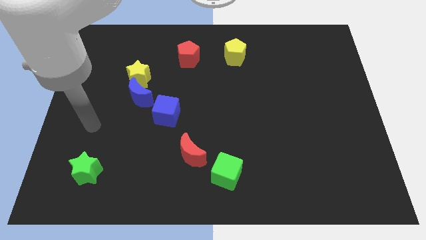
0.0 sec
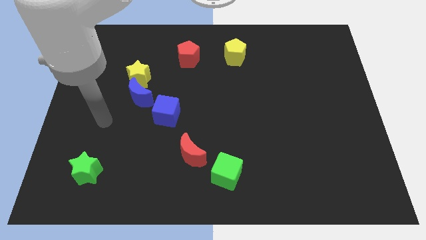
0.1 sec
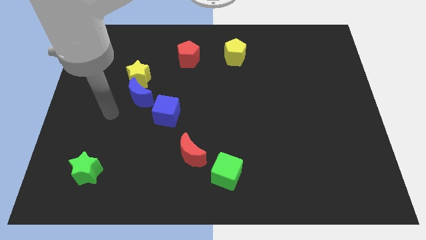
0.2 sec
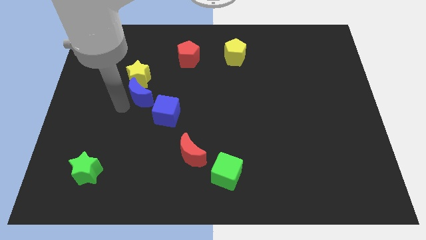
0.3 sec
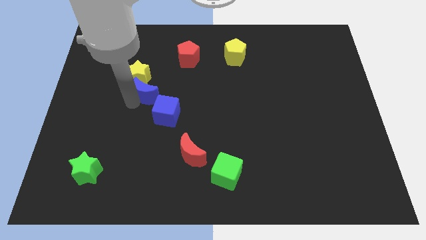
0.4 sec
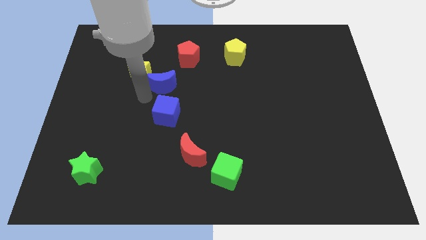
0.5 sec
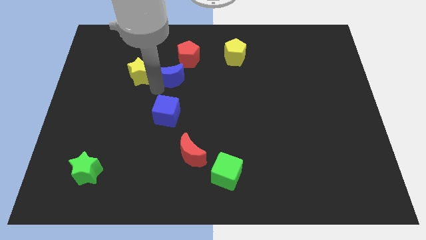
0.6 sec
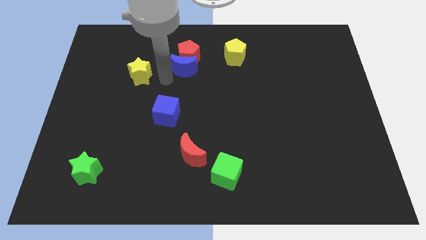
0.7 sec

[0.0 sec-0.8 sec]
separate the yellow star from the blue moon

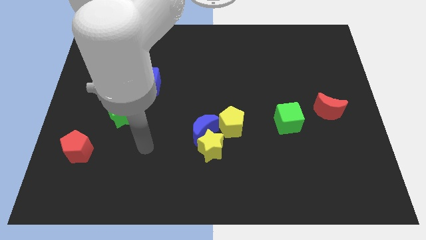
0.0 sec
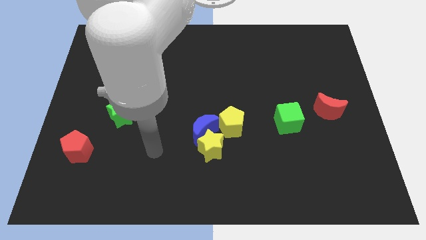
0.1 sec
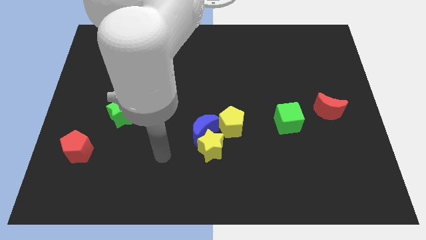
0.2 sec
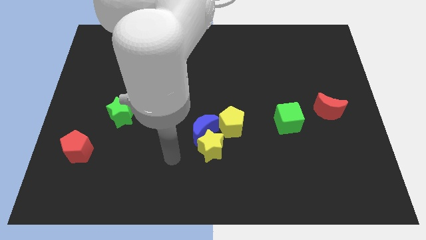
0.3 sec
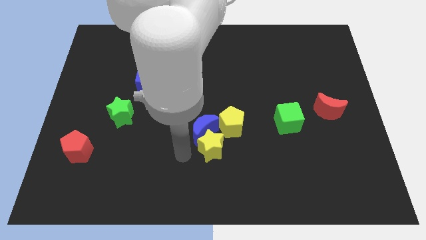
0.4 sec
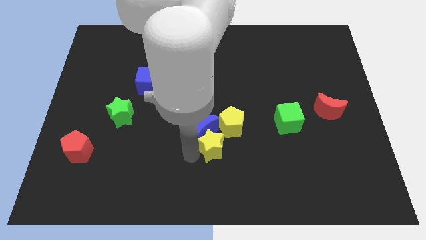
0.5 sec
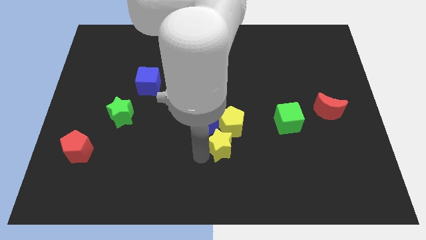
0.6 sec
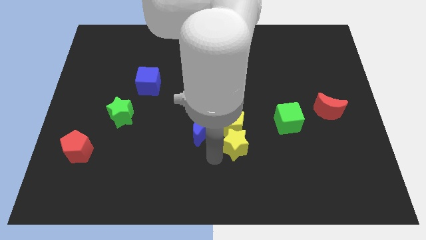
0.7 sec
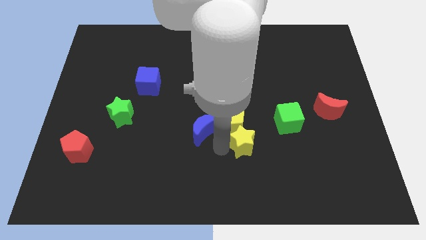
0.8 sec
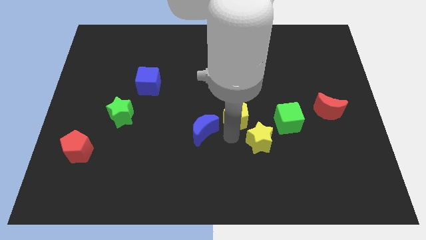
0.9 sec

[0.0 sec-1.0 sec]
move the blue moon away from the yellow star and yellow pentagon

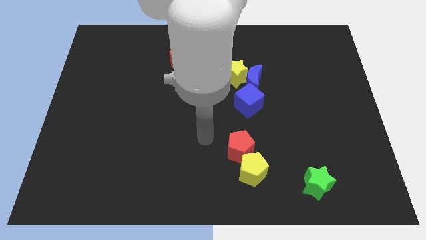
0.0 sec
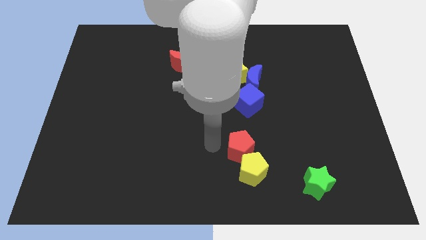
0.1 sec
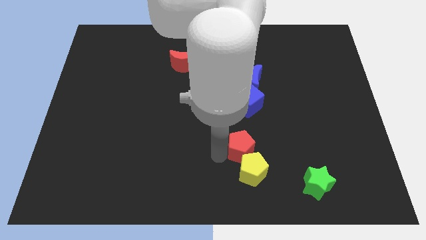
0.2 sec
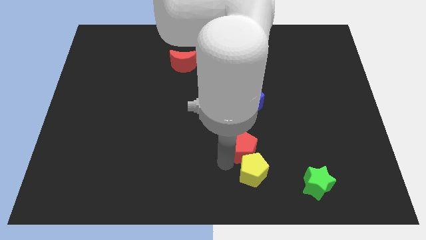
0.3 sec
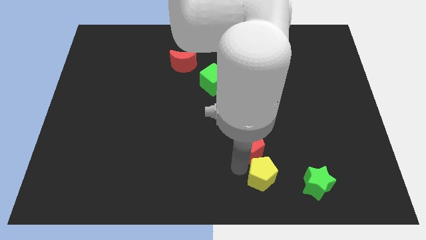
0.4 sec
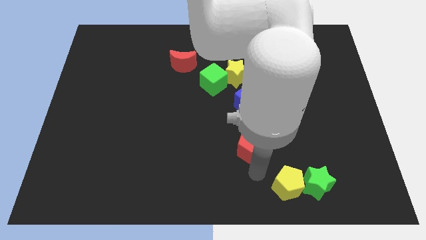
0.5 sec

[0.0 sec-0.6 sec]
pull the red pentagon apart from the yellow pentagon

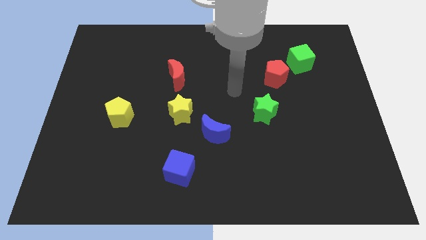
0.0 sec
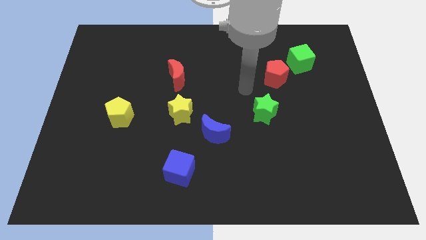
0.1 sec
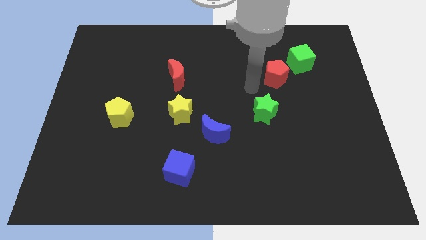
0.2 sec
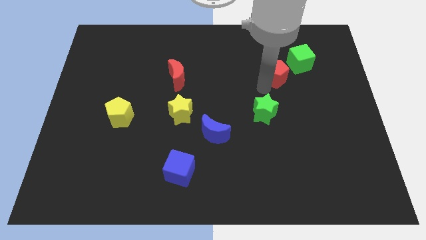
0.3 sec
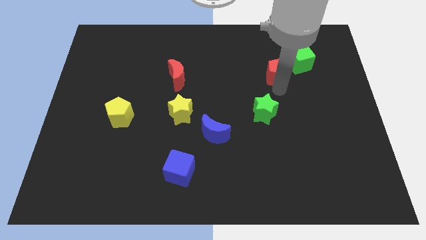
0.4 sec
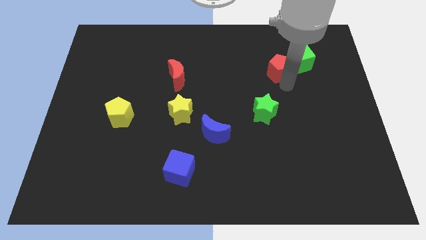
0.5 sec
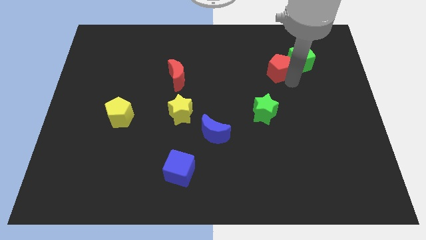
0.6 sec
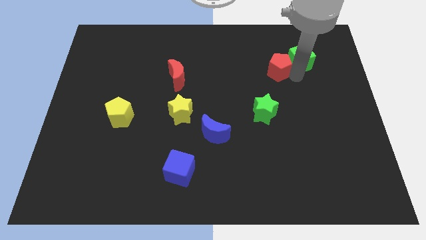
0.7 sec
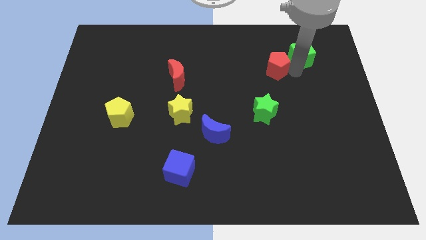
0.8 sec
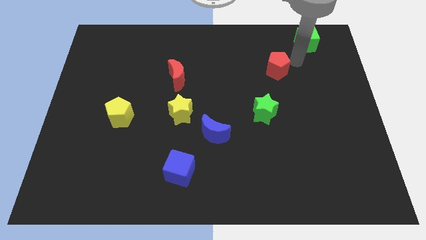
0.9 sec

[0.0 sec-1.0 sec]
move the red pentagon away from the green cube

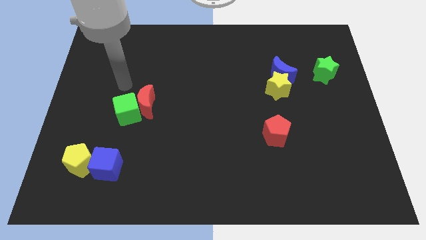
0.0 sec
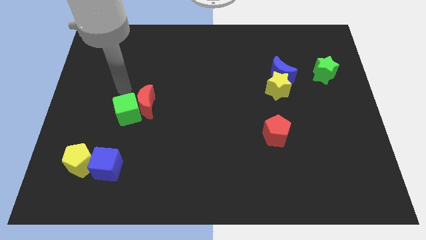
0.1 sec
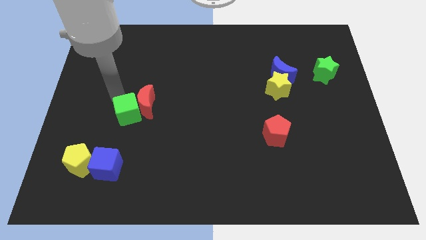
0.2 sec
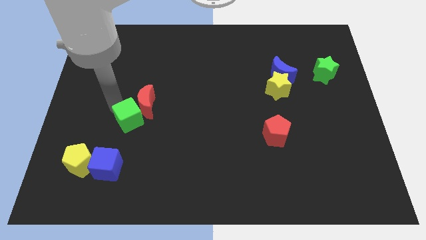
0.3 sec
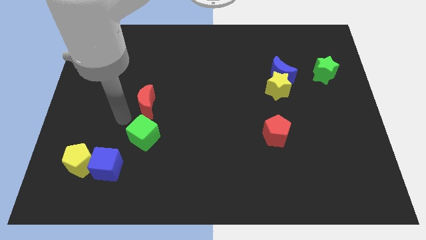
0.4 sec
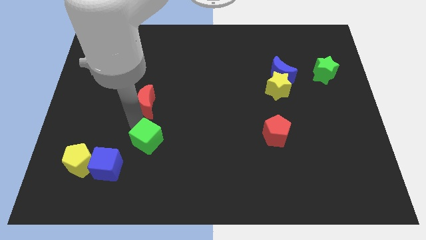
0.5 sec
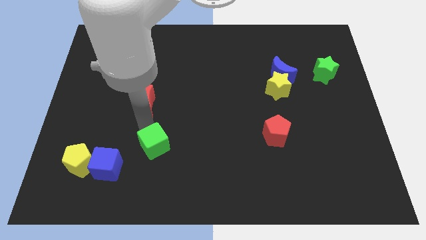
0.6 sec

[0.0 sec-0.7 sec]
separate the red moon from the green cube

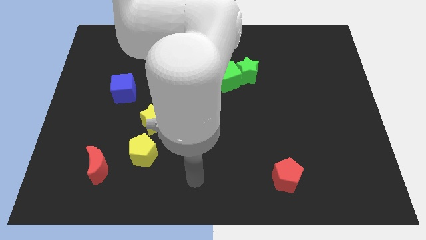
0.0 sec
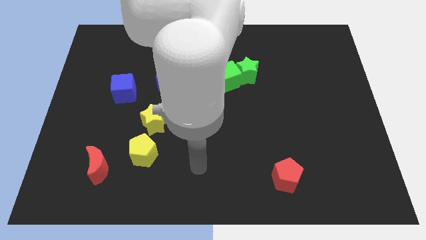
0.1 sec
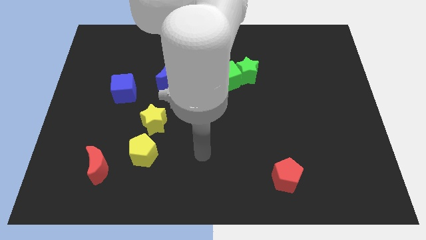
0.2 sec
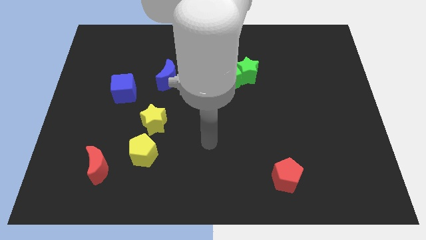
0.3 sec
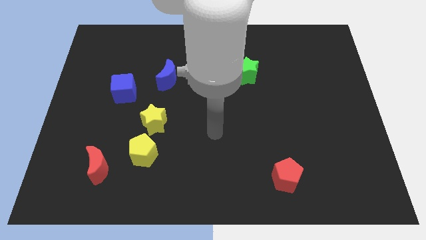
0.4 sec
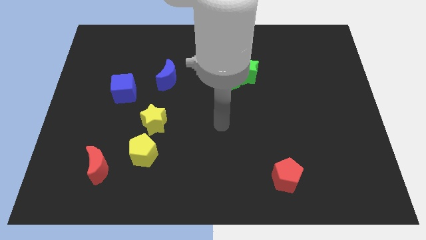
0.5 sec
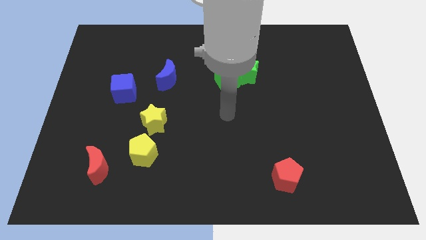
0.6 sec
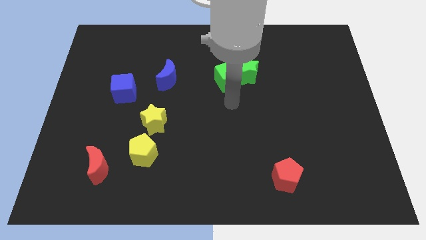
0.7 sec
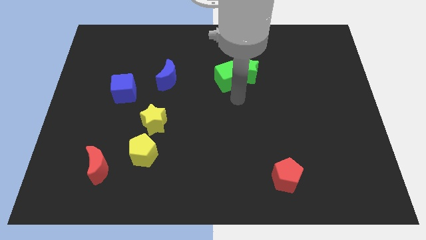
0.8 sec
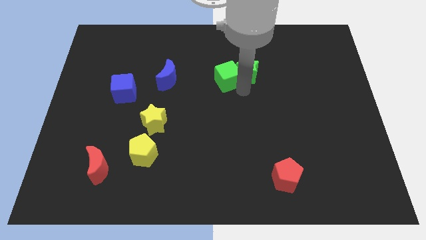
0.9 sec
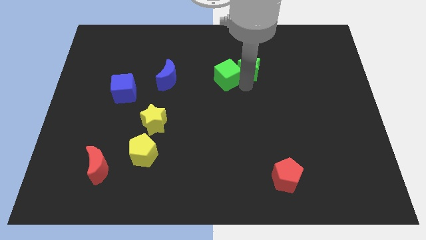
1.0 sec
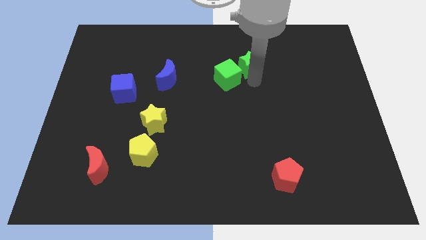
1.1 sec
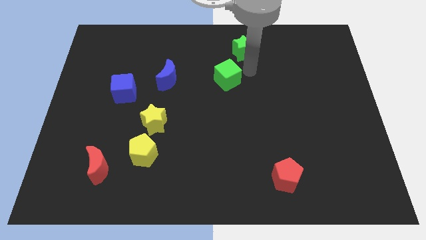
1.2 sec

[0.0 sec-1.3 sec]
move the green cube away from the green star

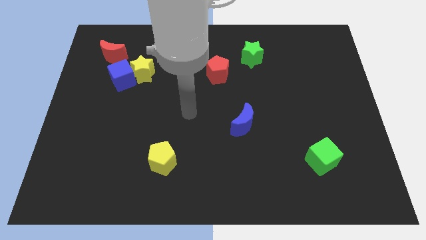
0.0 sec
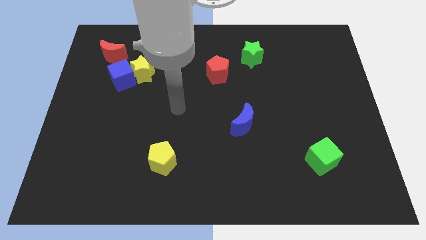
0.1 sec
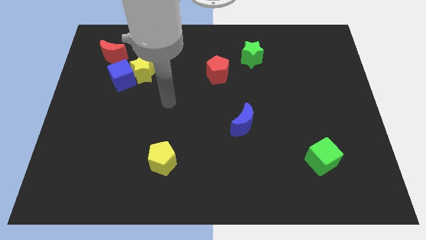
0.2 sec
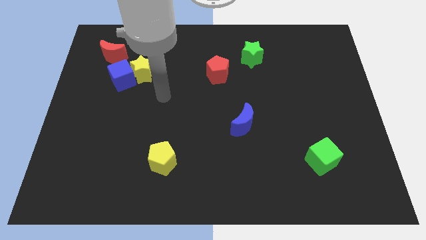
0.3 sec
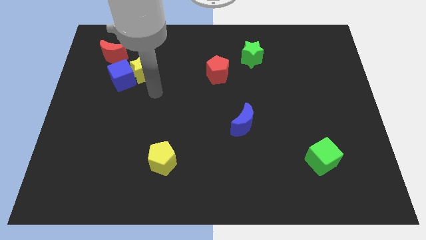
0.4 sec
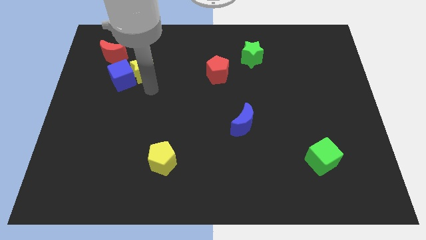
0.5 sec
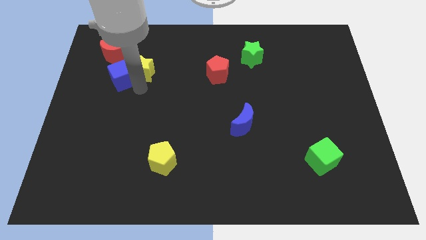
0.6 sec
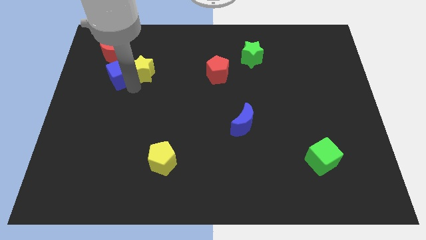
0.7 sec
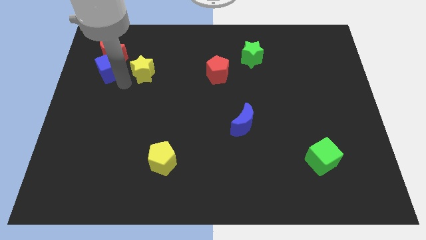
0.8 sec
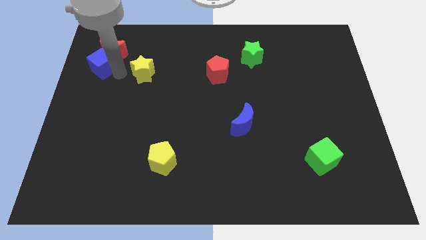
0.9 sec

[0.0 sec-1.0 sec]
move the yellow star away from the blue cube

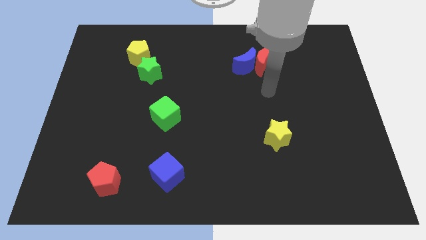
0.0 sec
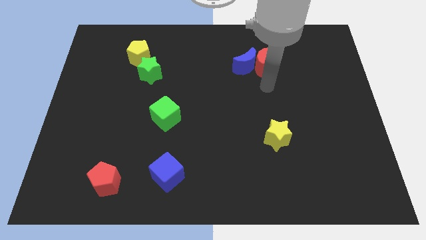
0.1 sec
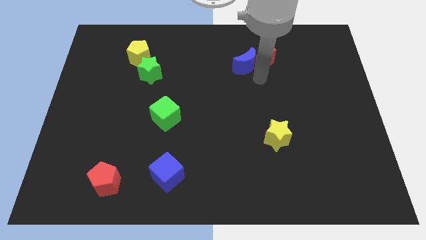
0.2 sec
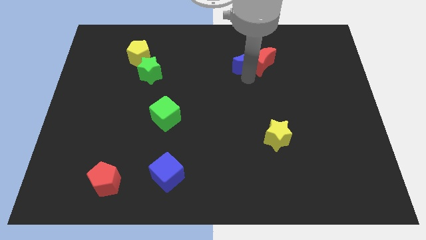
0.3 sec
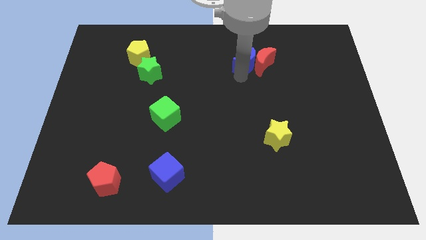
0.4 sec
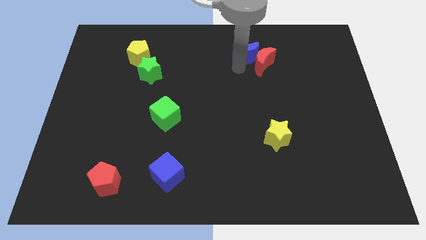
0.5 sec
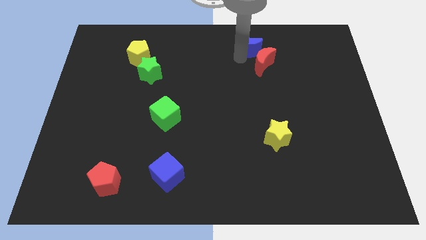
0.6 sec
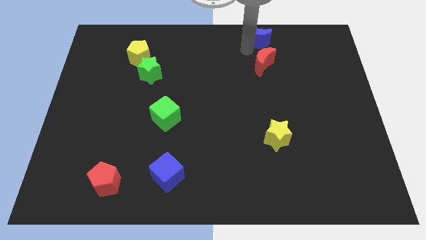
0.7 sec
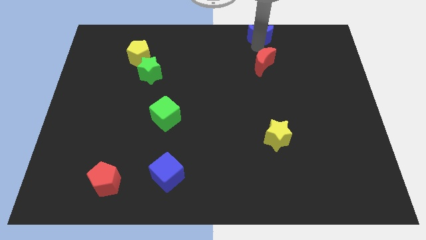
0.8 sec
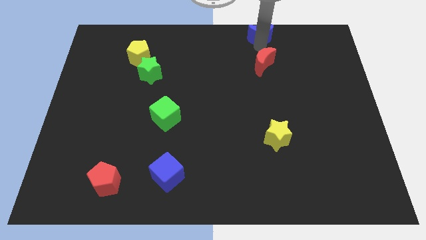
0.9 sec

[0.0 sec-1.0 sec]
move the red moon away from the blue moon

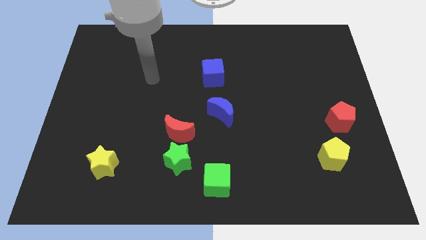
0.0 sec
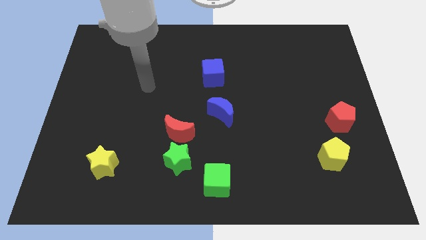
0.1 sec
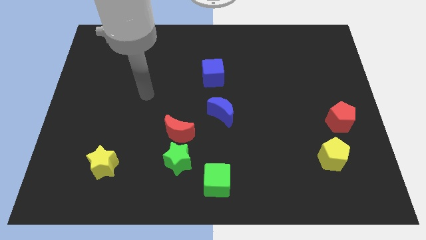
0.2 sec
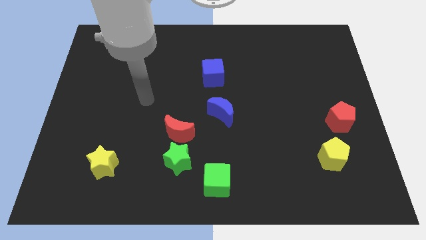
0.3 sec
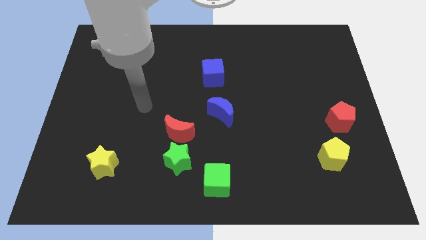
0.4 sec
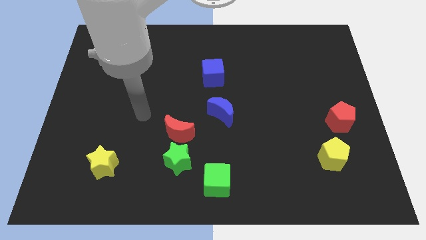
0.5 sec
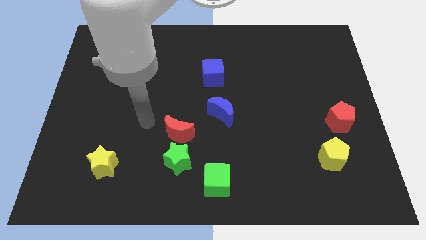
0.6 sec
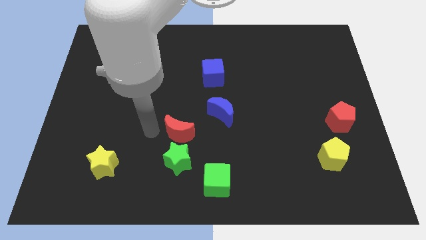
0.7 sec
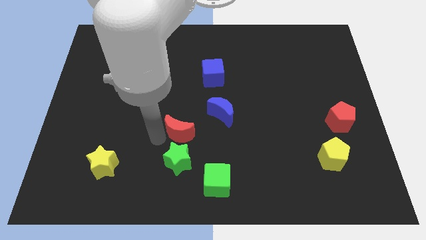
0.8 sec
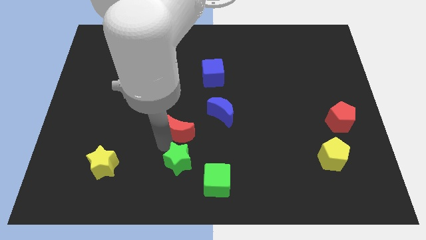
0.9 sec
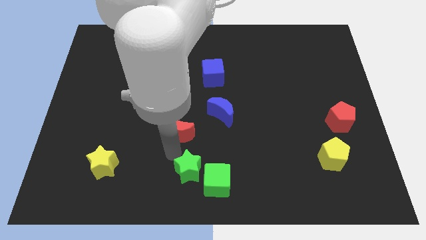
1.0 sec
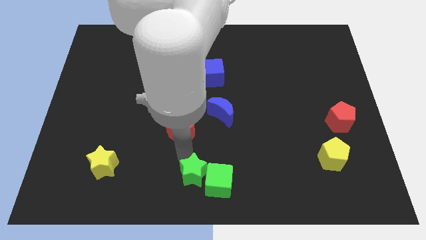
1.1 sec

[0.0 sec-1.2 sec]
pull the red moon apart from the green star

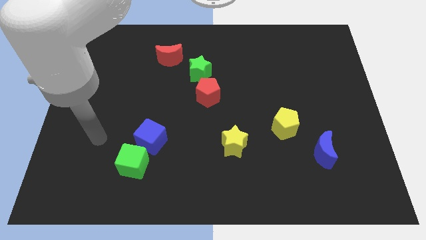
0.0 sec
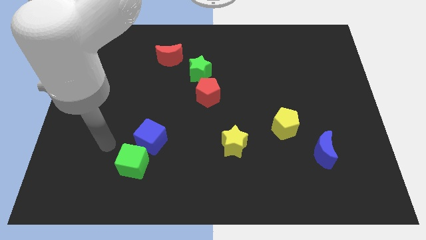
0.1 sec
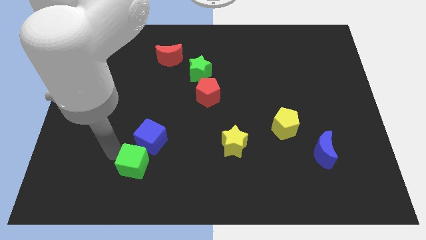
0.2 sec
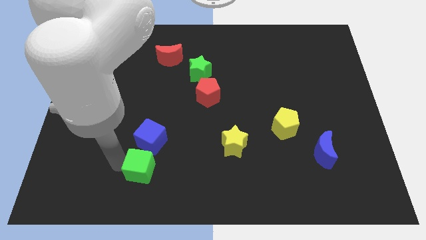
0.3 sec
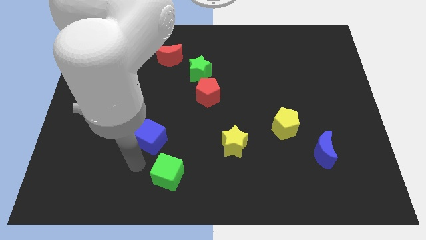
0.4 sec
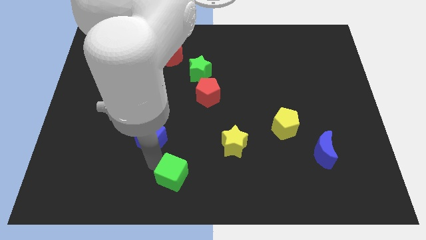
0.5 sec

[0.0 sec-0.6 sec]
pull the blue cube apart from the green cube

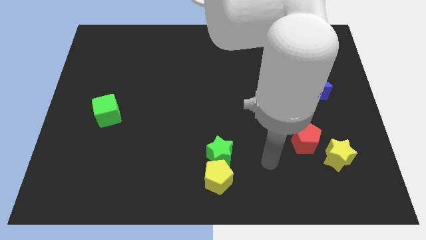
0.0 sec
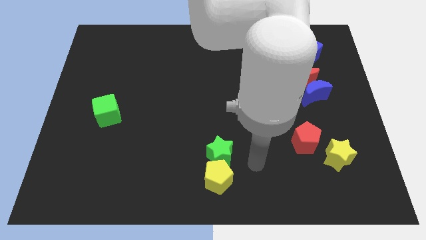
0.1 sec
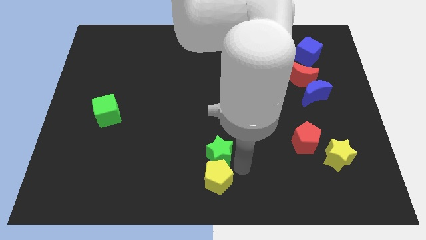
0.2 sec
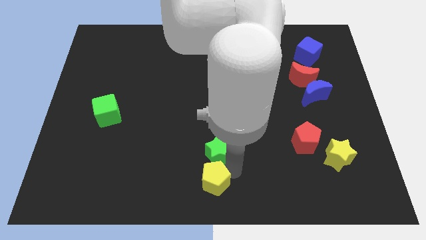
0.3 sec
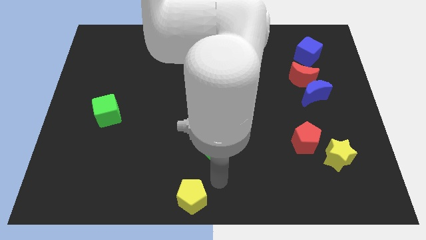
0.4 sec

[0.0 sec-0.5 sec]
pull the green star apart from the yellow pentagon
